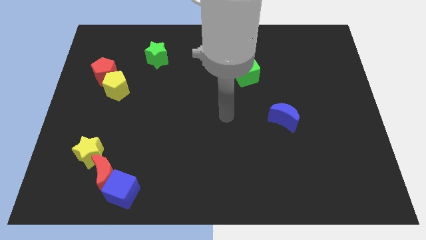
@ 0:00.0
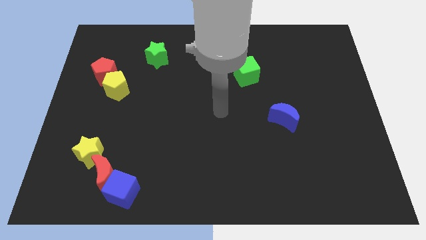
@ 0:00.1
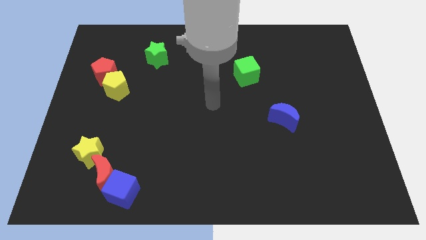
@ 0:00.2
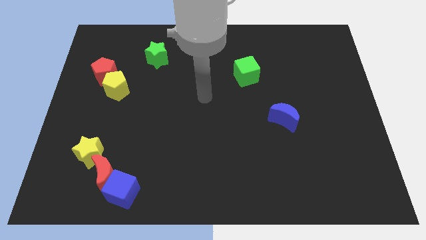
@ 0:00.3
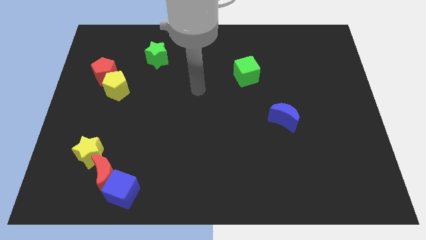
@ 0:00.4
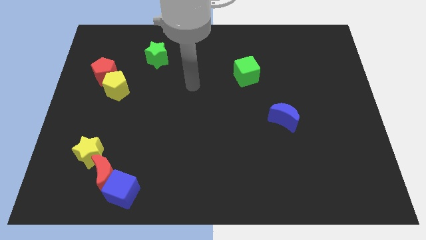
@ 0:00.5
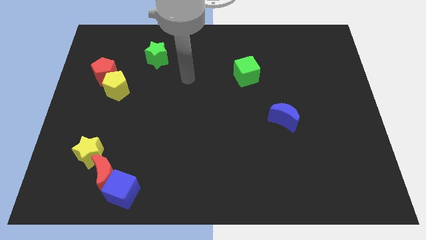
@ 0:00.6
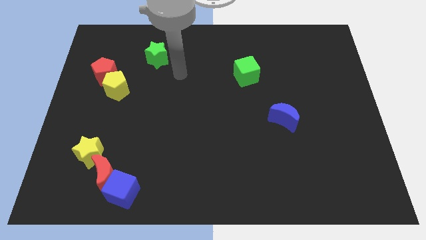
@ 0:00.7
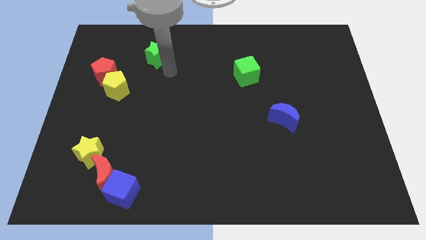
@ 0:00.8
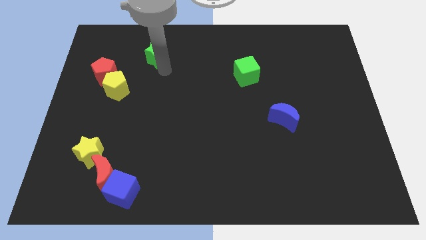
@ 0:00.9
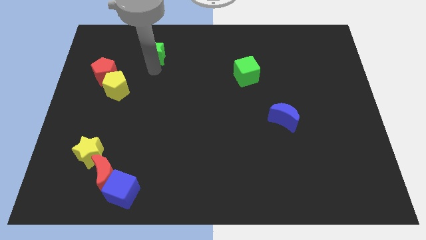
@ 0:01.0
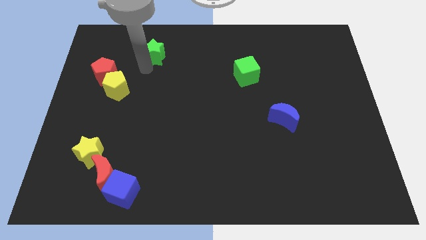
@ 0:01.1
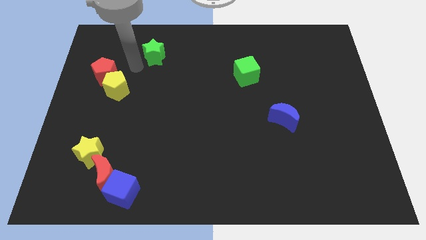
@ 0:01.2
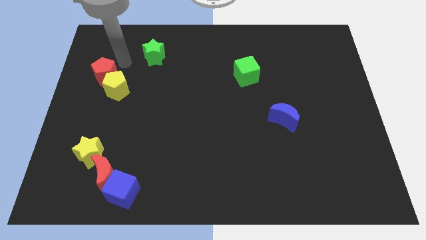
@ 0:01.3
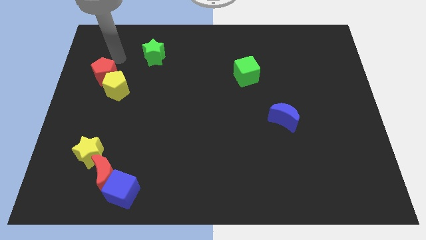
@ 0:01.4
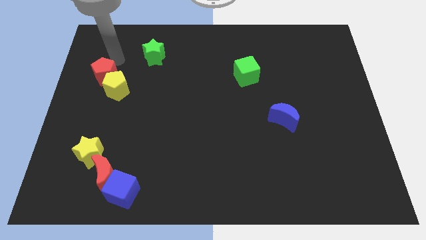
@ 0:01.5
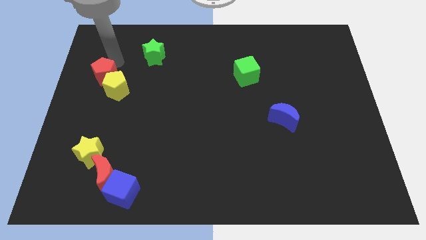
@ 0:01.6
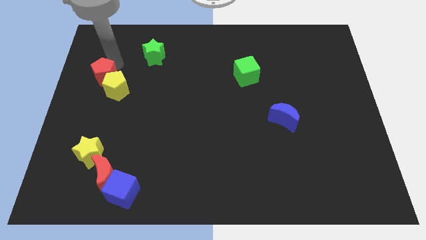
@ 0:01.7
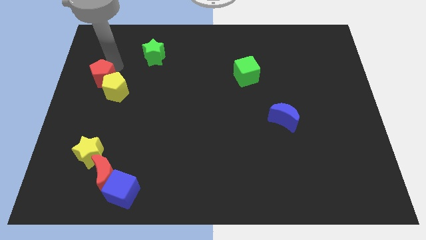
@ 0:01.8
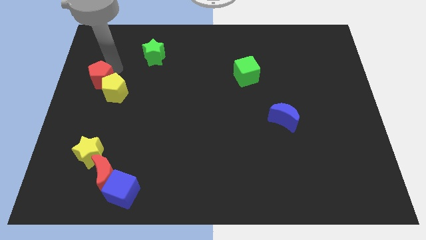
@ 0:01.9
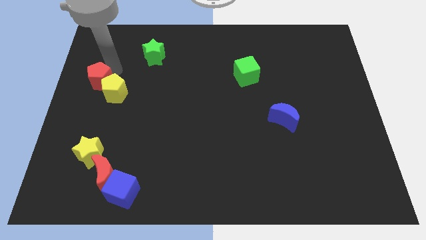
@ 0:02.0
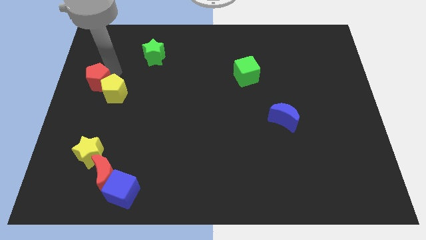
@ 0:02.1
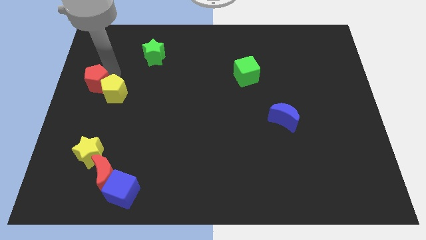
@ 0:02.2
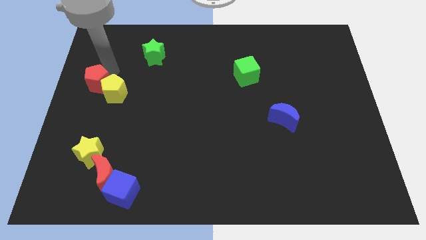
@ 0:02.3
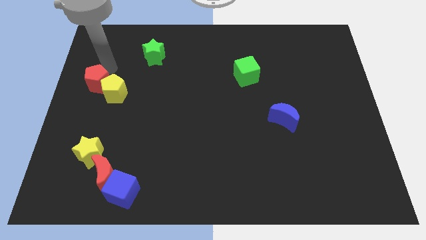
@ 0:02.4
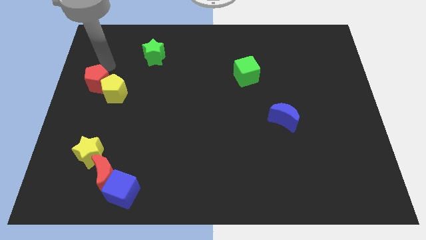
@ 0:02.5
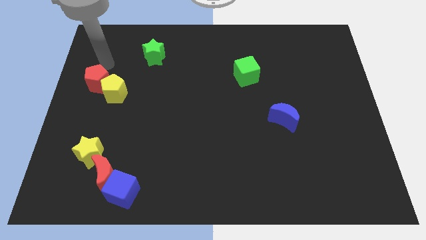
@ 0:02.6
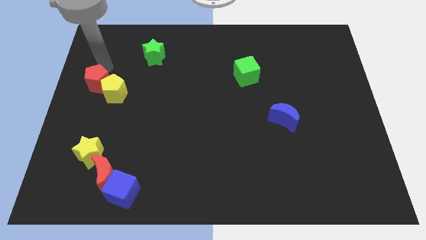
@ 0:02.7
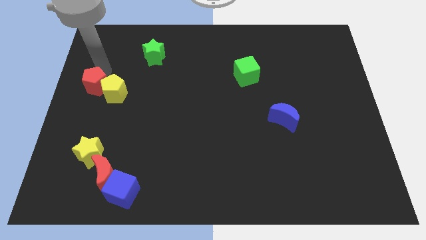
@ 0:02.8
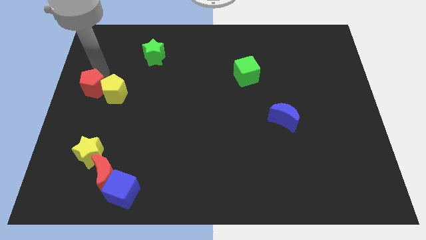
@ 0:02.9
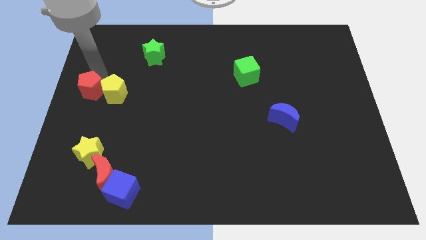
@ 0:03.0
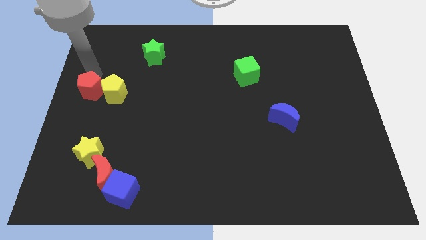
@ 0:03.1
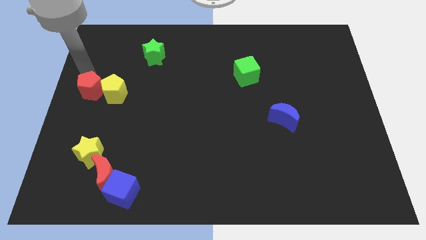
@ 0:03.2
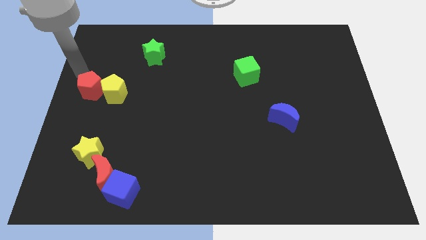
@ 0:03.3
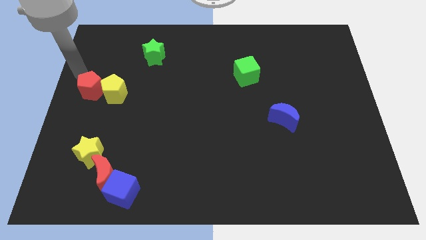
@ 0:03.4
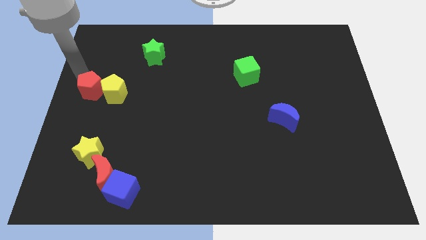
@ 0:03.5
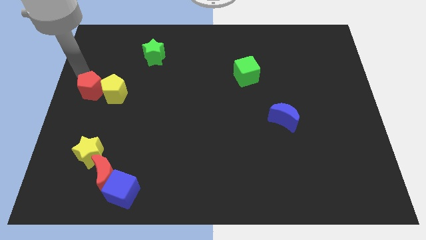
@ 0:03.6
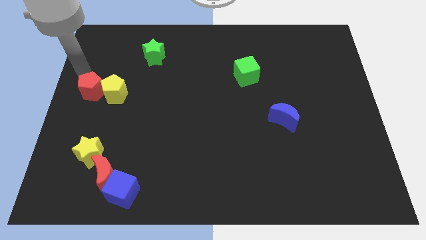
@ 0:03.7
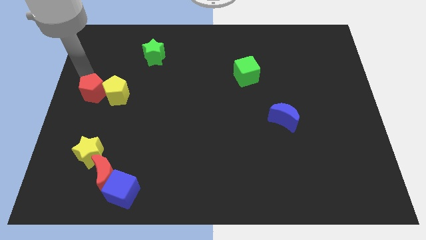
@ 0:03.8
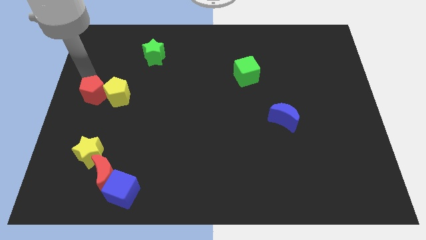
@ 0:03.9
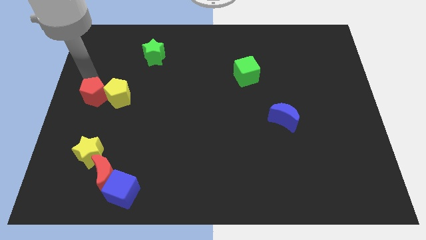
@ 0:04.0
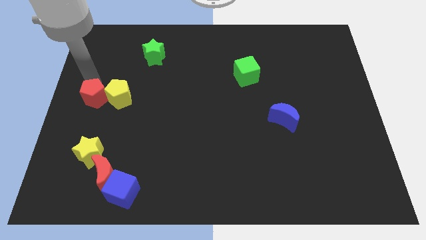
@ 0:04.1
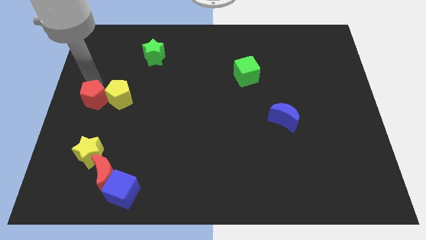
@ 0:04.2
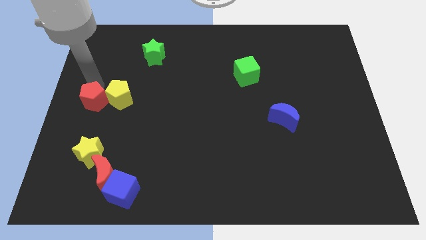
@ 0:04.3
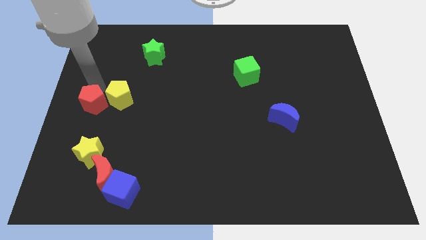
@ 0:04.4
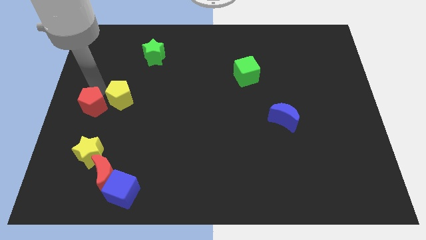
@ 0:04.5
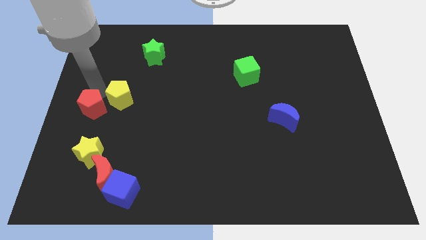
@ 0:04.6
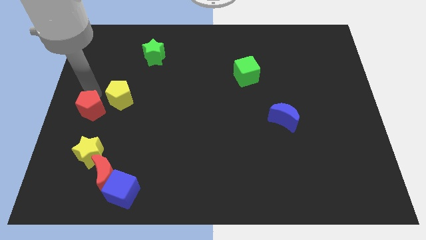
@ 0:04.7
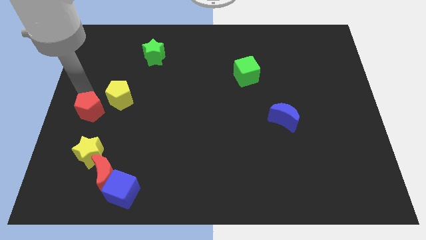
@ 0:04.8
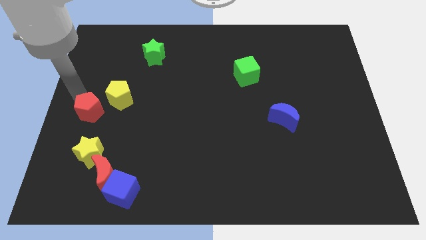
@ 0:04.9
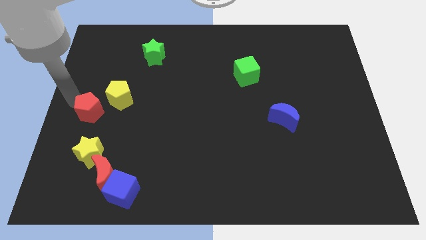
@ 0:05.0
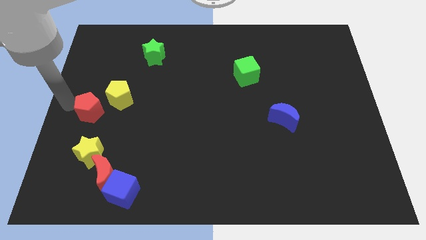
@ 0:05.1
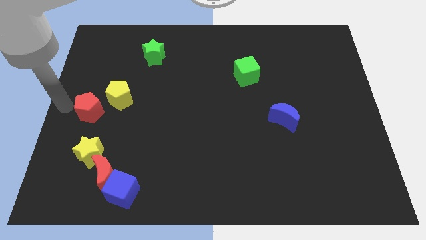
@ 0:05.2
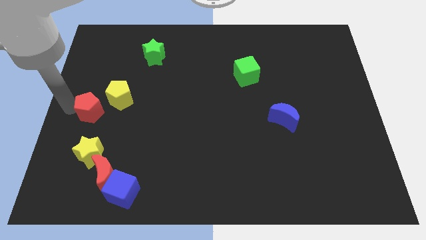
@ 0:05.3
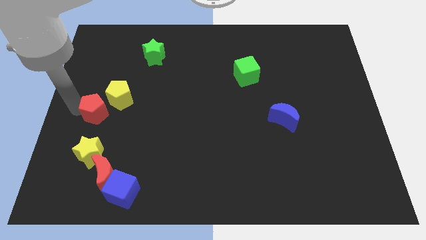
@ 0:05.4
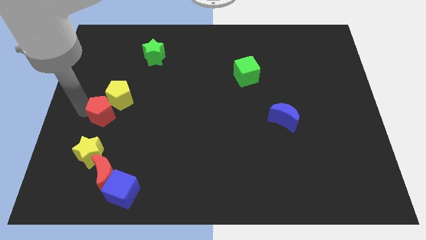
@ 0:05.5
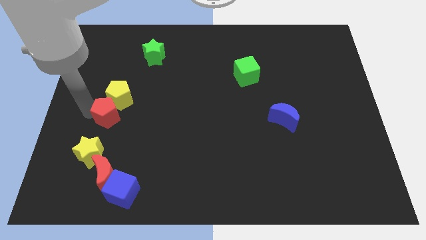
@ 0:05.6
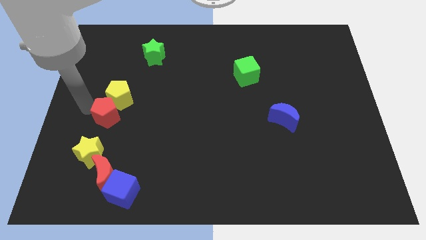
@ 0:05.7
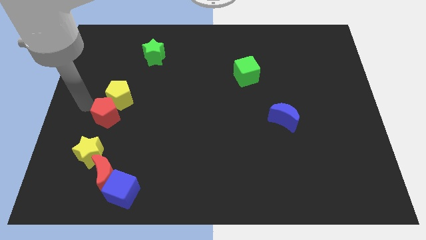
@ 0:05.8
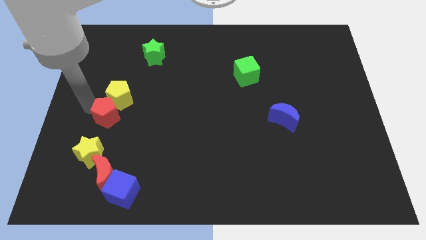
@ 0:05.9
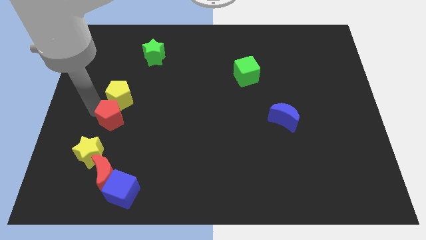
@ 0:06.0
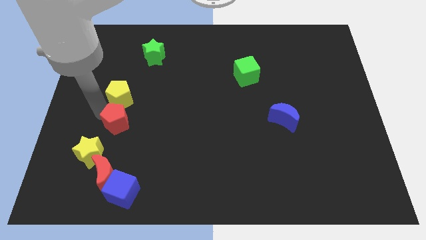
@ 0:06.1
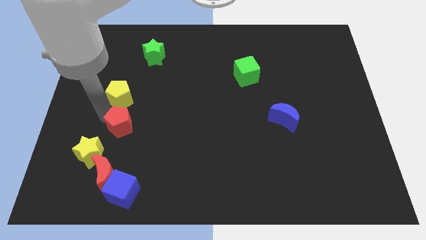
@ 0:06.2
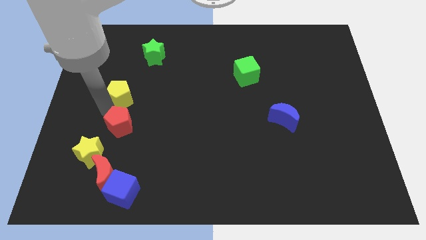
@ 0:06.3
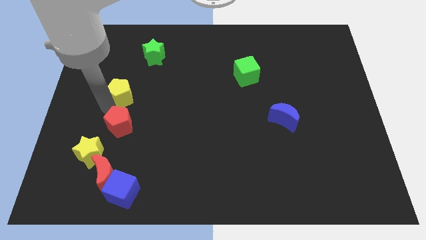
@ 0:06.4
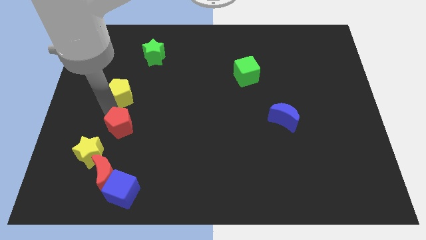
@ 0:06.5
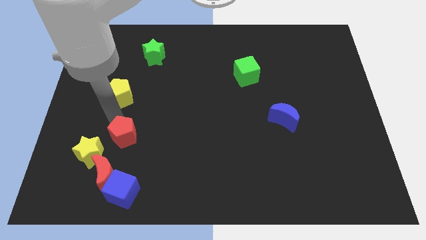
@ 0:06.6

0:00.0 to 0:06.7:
slide the red pentagon to the right side of the yellow star

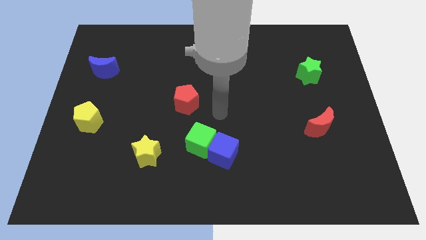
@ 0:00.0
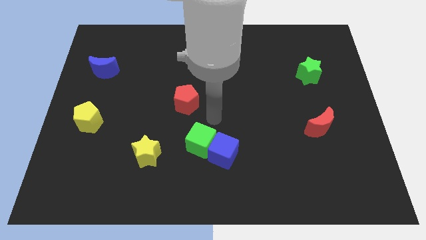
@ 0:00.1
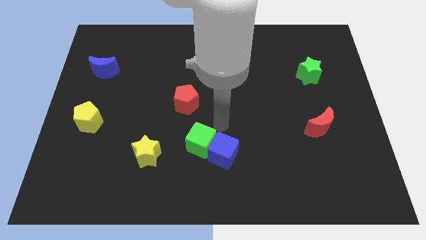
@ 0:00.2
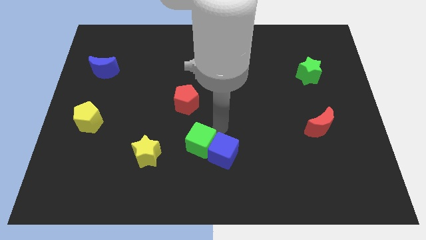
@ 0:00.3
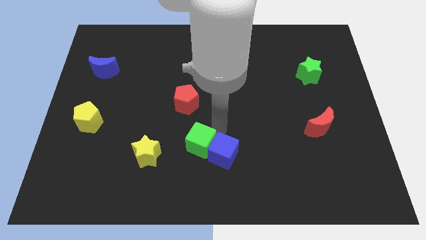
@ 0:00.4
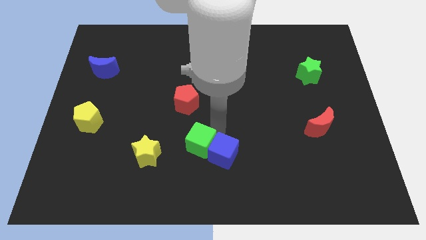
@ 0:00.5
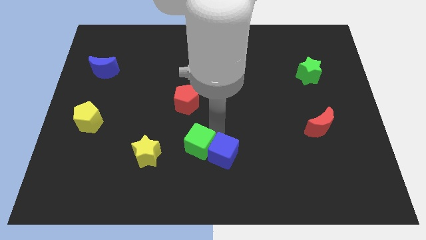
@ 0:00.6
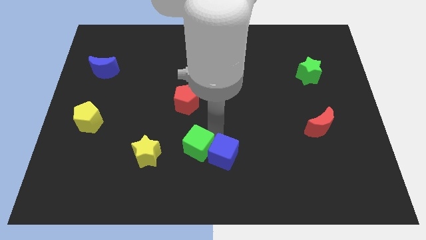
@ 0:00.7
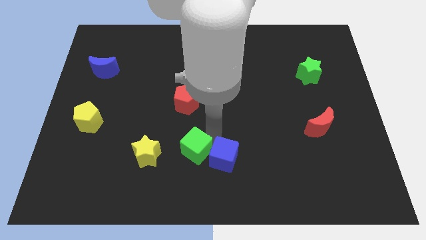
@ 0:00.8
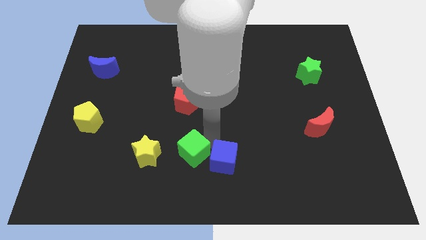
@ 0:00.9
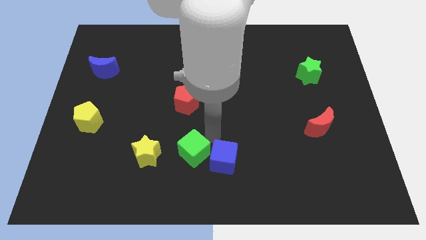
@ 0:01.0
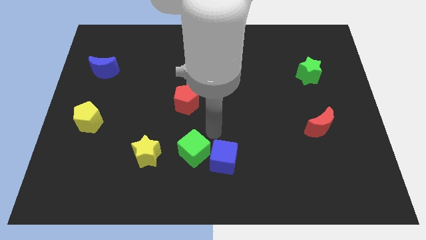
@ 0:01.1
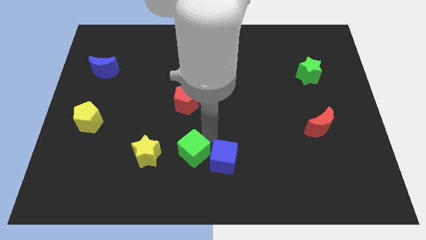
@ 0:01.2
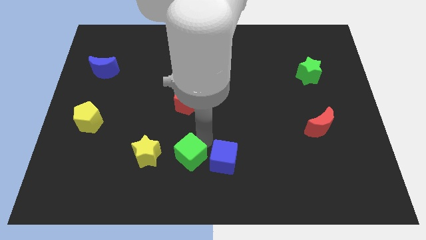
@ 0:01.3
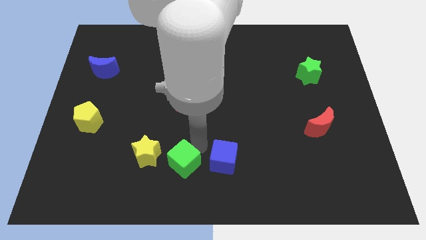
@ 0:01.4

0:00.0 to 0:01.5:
slide the green cube to the bottom right side of the yellow star
